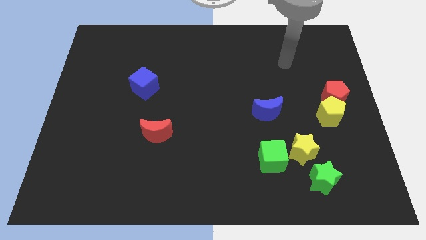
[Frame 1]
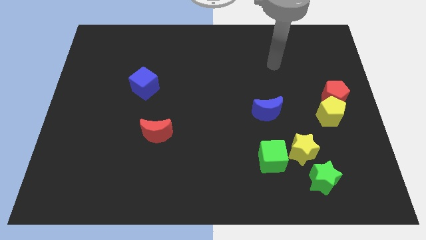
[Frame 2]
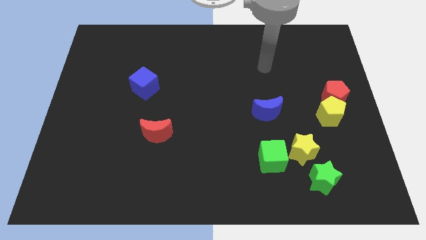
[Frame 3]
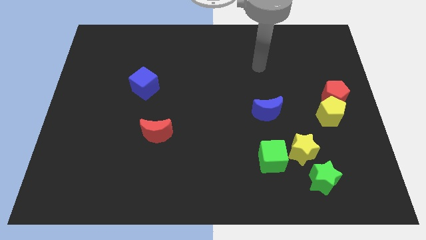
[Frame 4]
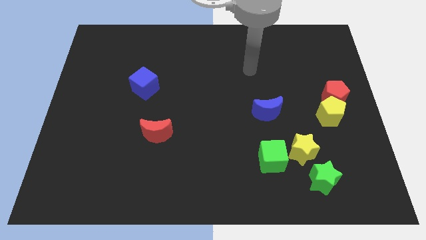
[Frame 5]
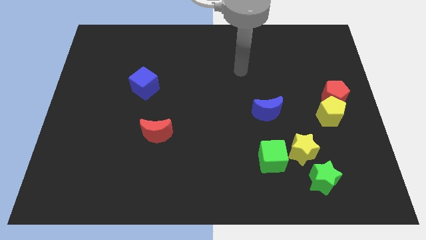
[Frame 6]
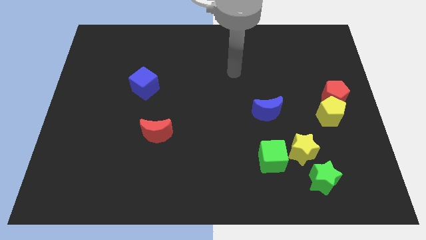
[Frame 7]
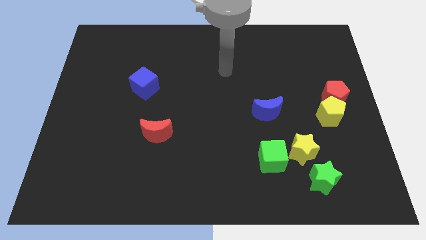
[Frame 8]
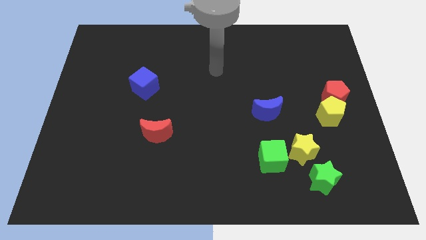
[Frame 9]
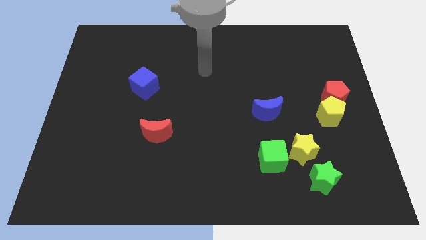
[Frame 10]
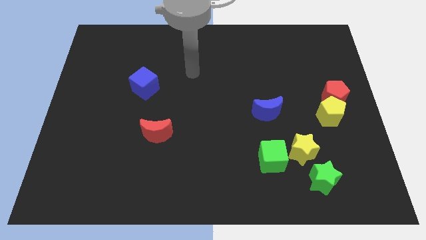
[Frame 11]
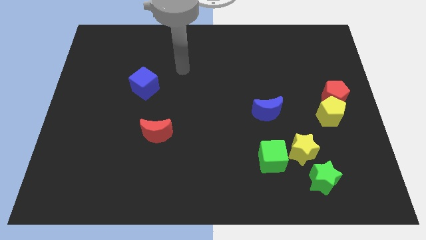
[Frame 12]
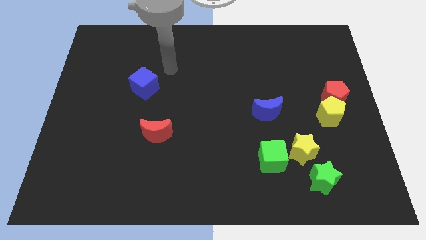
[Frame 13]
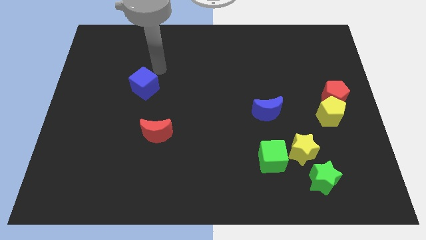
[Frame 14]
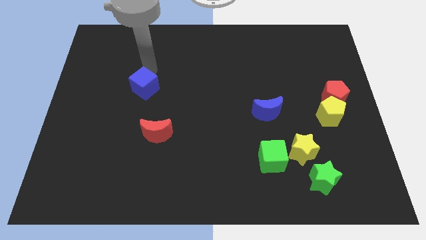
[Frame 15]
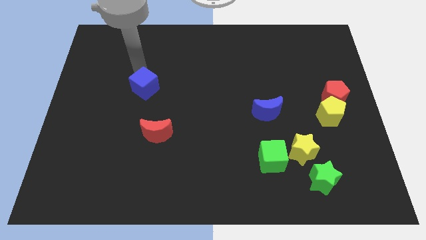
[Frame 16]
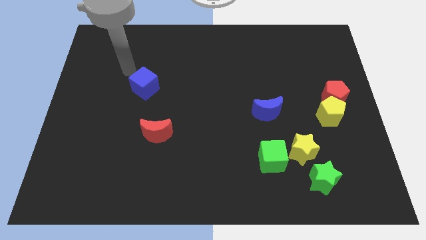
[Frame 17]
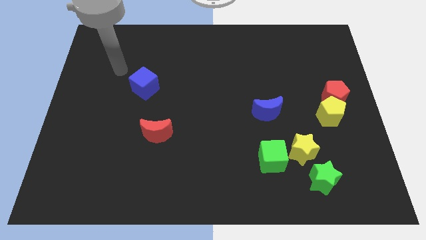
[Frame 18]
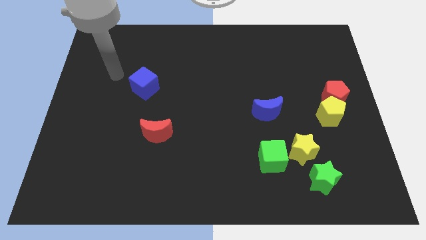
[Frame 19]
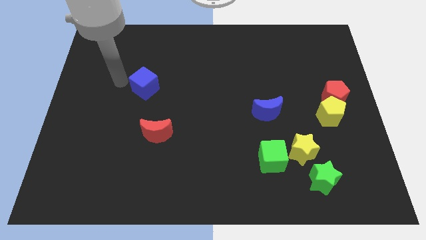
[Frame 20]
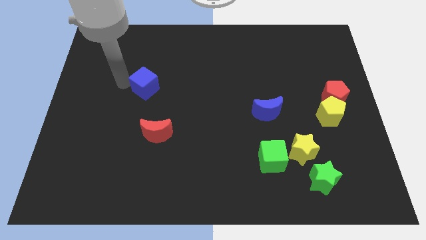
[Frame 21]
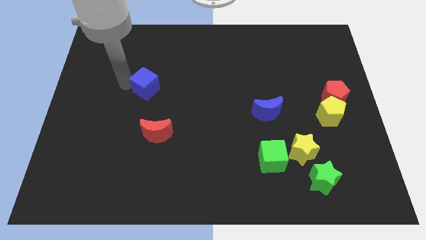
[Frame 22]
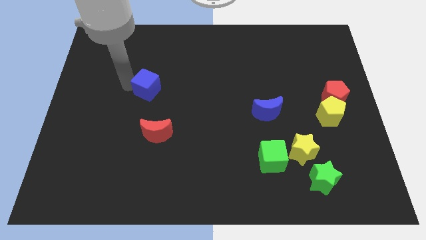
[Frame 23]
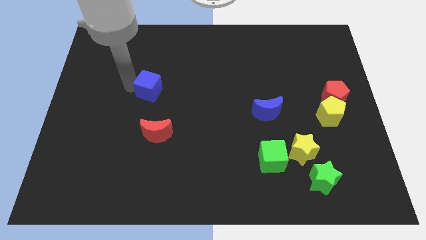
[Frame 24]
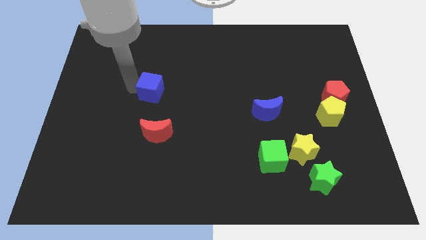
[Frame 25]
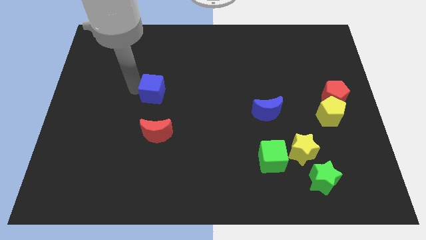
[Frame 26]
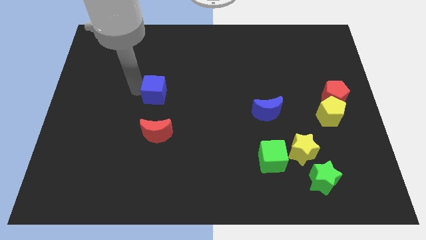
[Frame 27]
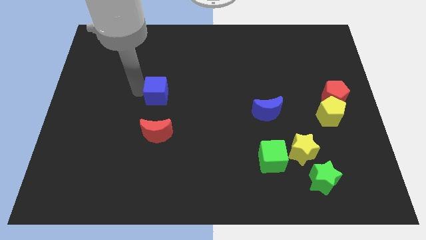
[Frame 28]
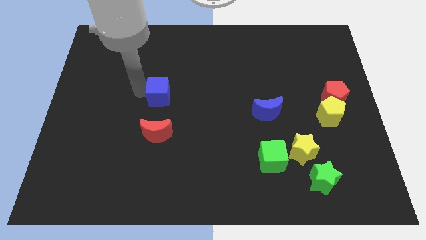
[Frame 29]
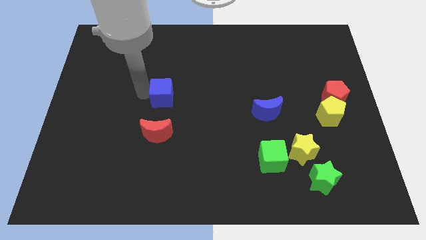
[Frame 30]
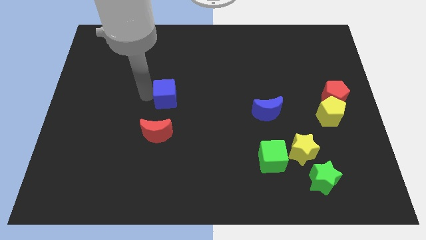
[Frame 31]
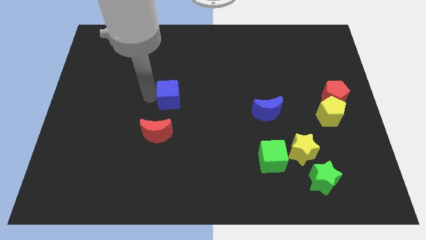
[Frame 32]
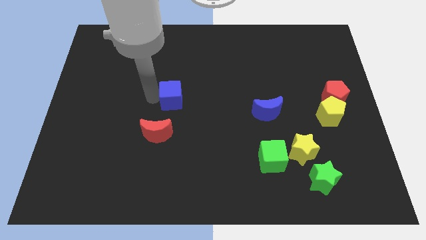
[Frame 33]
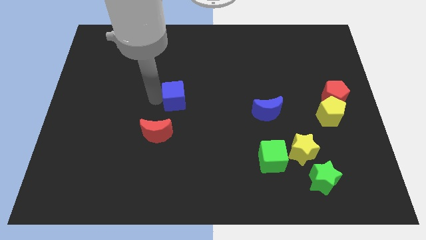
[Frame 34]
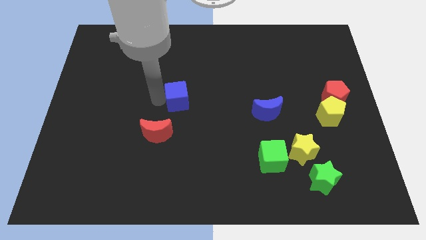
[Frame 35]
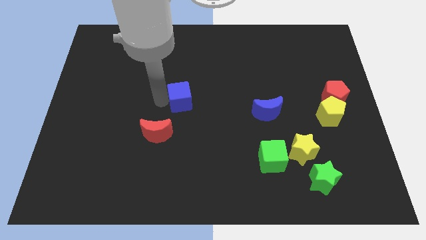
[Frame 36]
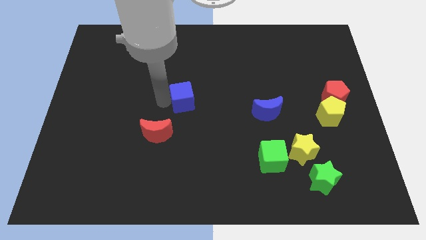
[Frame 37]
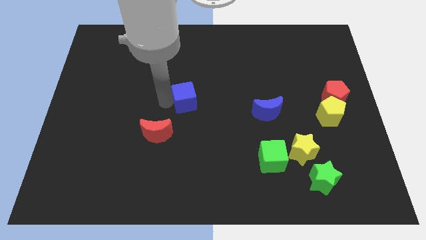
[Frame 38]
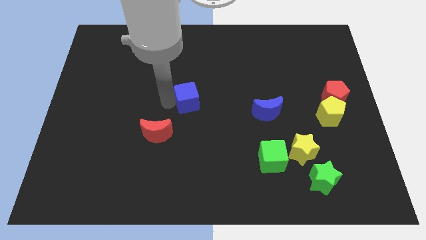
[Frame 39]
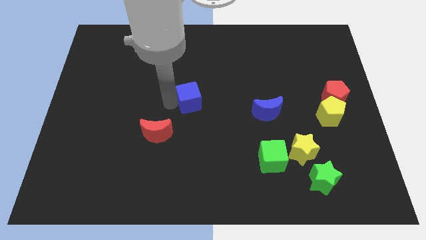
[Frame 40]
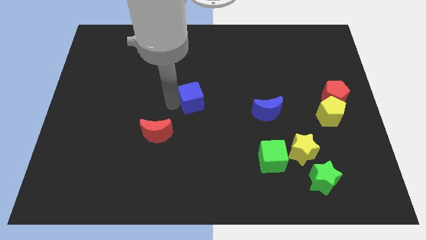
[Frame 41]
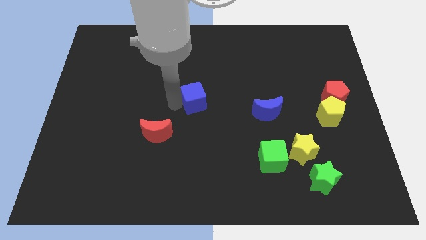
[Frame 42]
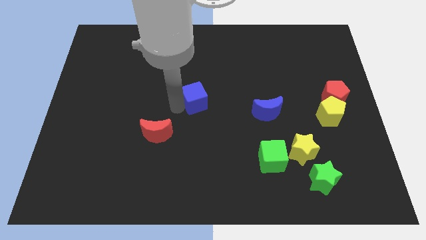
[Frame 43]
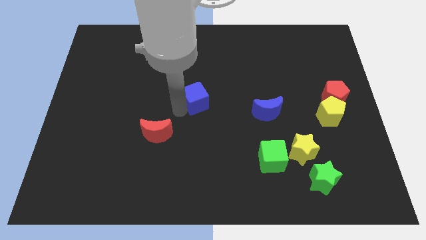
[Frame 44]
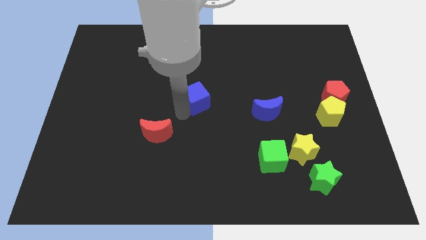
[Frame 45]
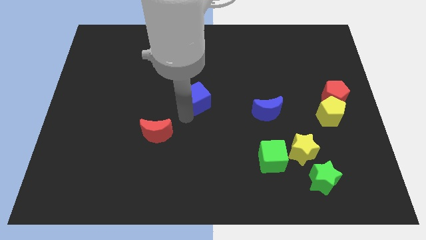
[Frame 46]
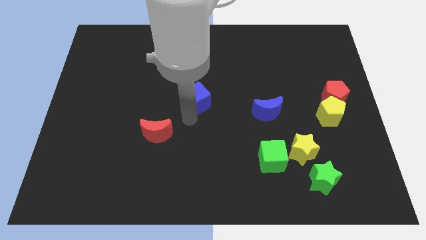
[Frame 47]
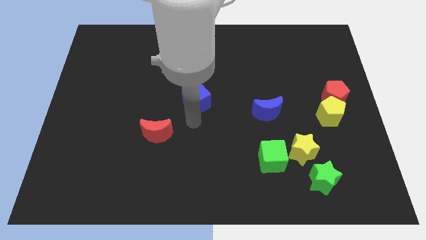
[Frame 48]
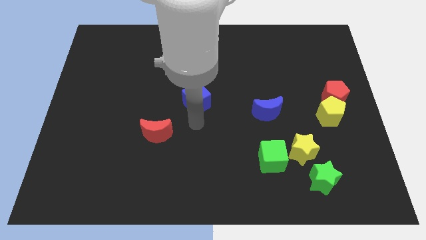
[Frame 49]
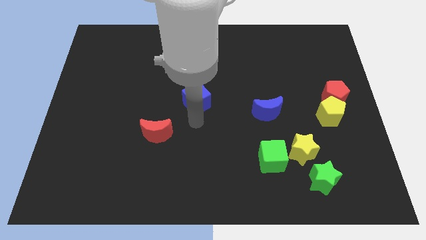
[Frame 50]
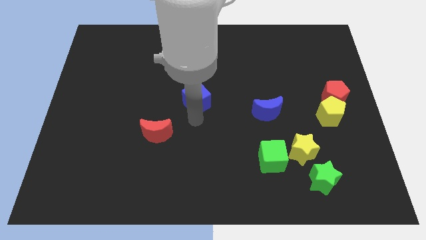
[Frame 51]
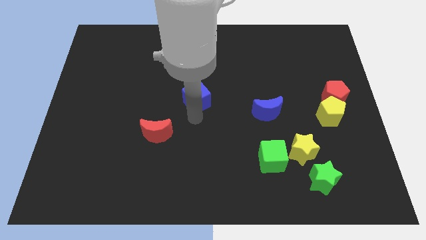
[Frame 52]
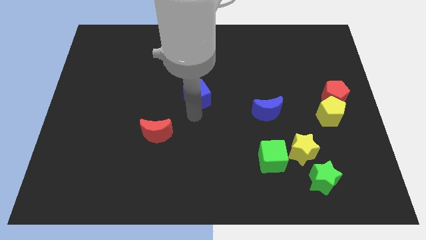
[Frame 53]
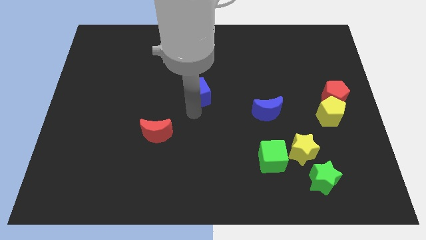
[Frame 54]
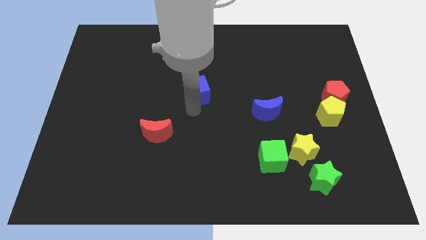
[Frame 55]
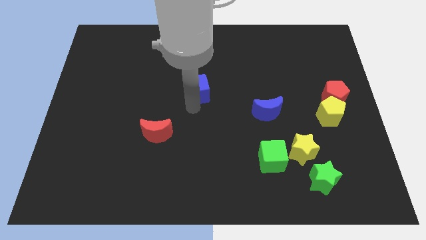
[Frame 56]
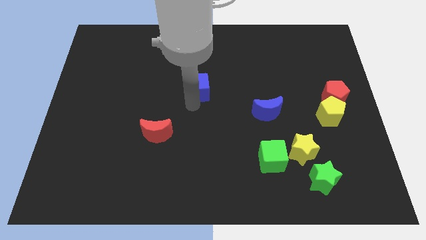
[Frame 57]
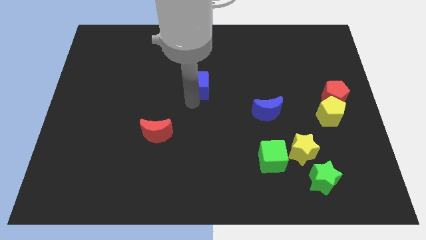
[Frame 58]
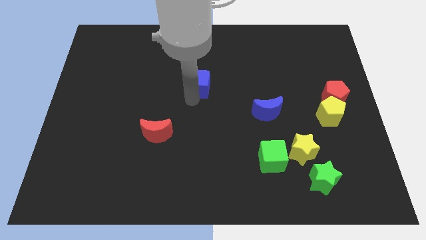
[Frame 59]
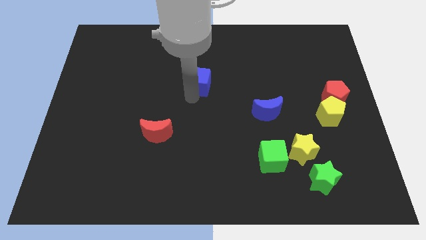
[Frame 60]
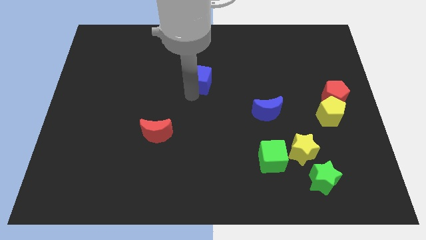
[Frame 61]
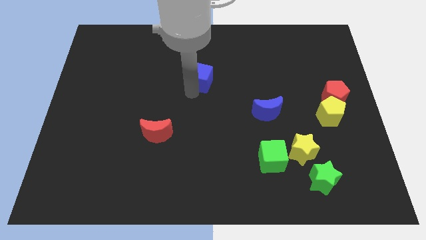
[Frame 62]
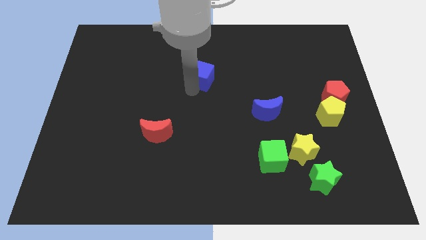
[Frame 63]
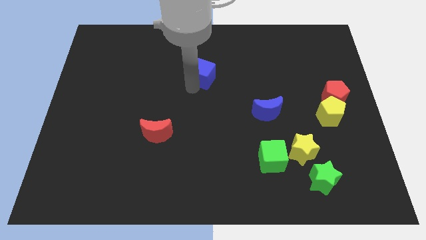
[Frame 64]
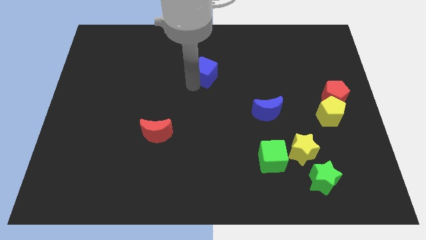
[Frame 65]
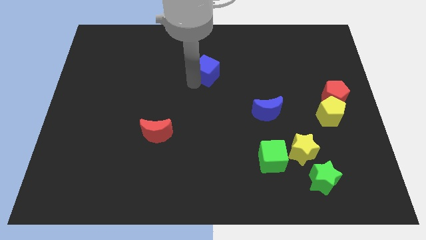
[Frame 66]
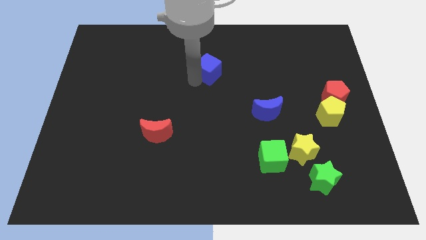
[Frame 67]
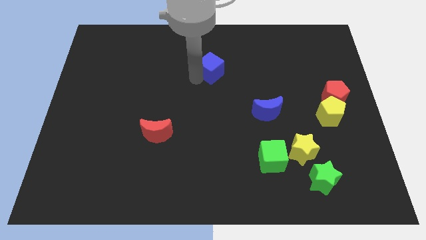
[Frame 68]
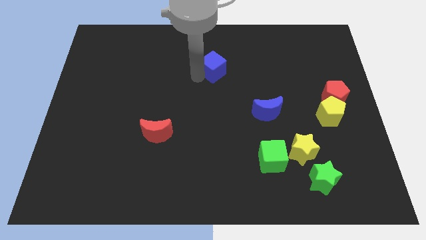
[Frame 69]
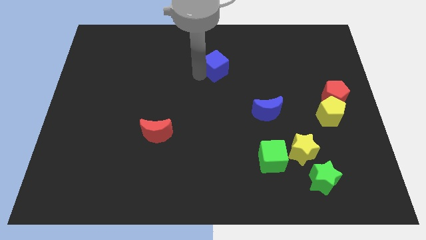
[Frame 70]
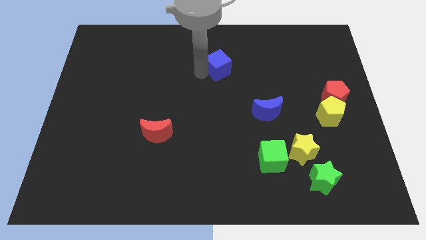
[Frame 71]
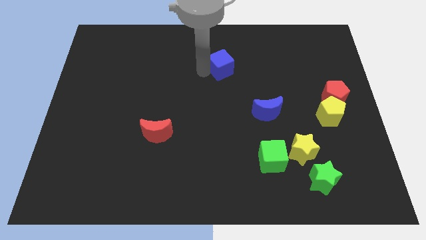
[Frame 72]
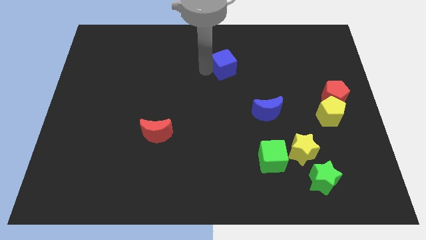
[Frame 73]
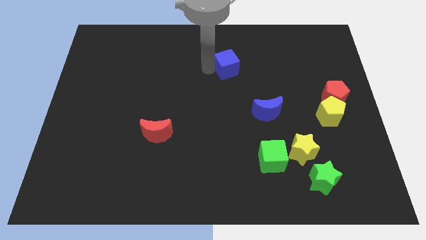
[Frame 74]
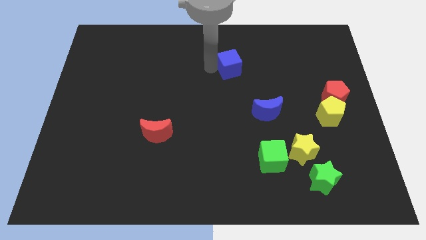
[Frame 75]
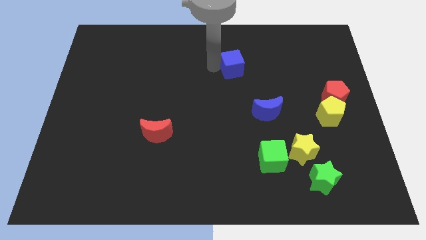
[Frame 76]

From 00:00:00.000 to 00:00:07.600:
move the blue cube to the right

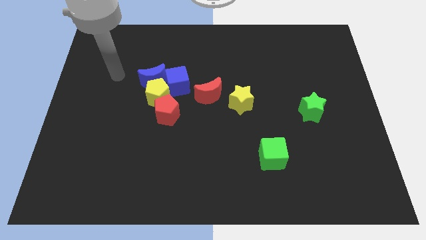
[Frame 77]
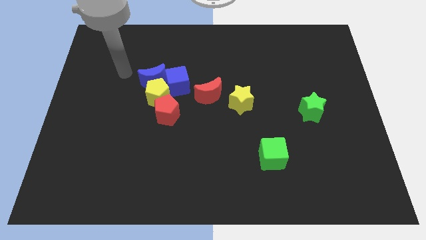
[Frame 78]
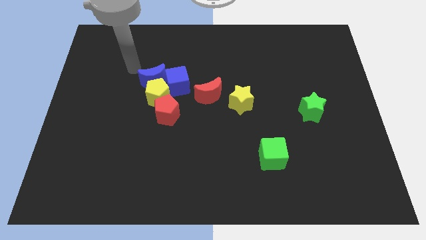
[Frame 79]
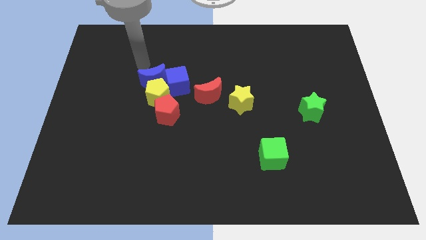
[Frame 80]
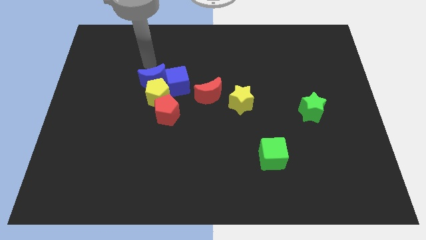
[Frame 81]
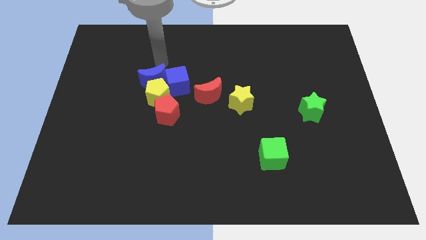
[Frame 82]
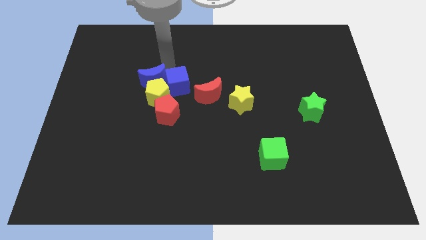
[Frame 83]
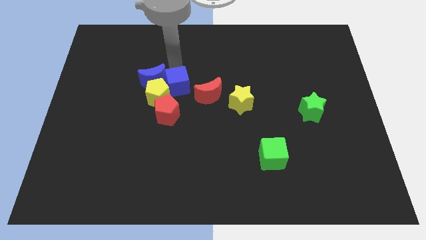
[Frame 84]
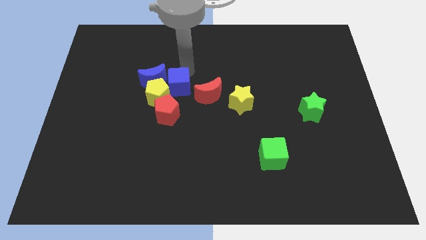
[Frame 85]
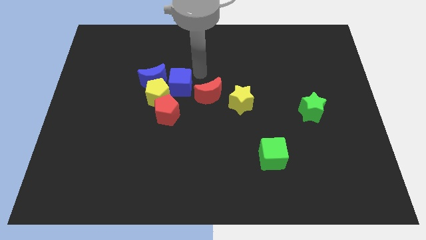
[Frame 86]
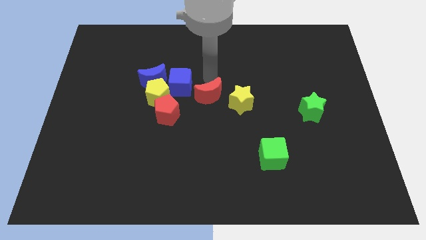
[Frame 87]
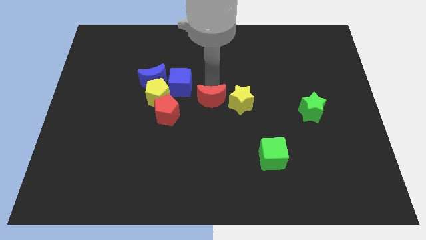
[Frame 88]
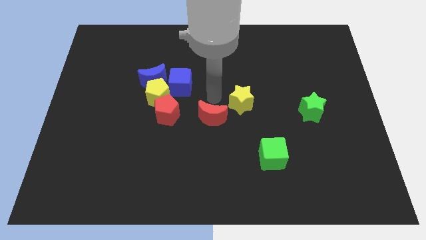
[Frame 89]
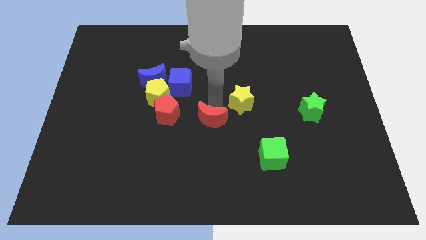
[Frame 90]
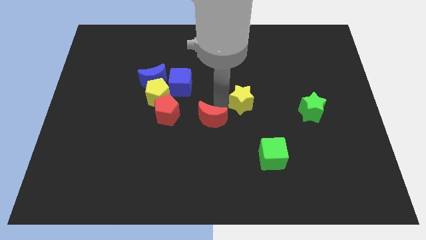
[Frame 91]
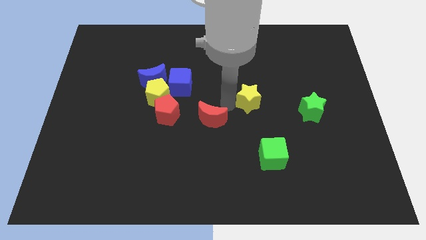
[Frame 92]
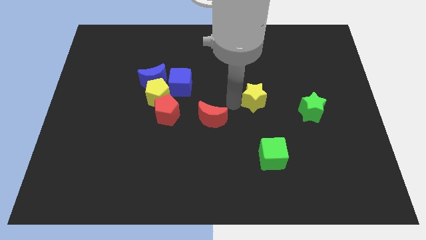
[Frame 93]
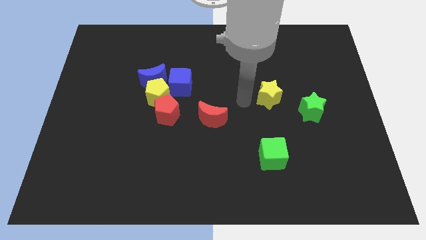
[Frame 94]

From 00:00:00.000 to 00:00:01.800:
slightly push the yellow star to the right
